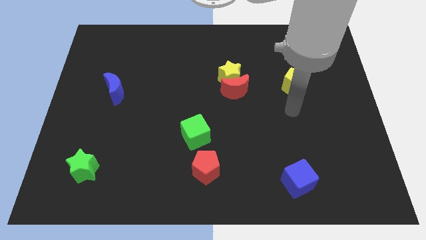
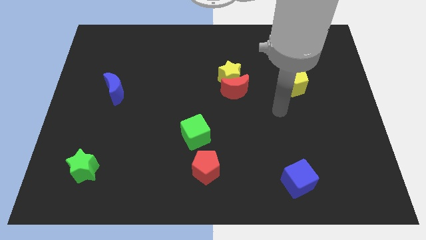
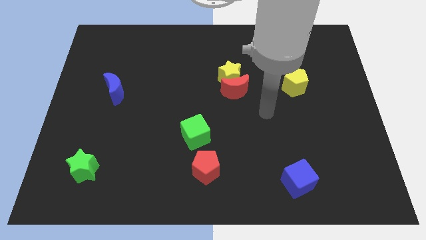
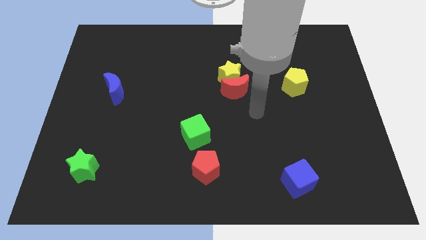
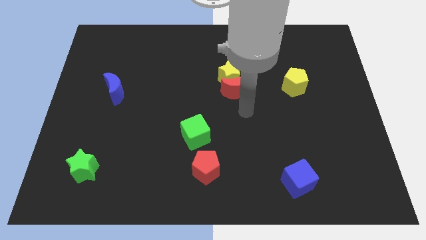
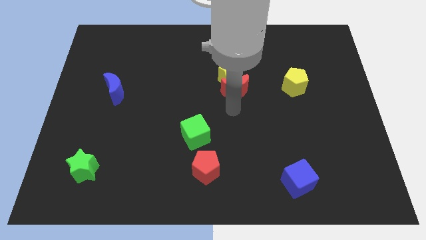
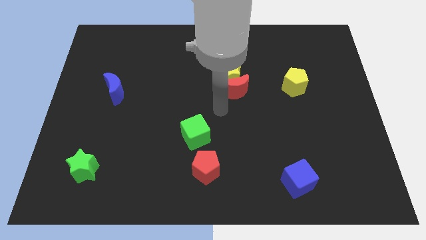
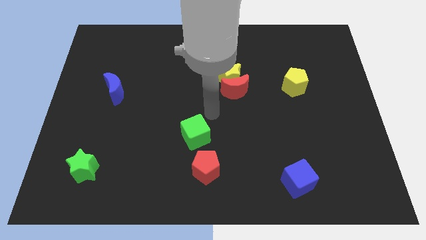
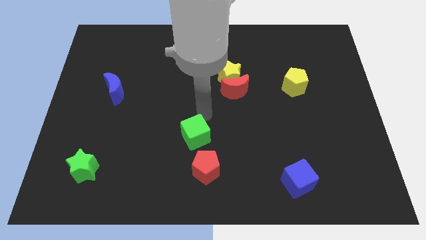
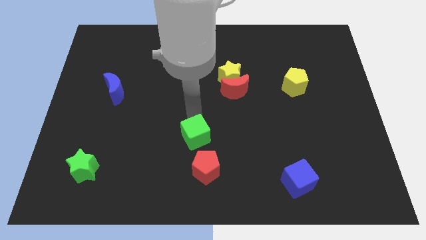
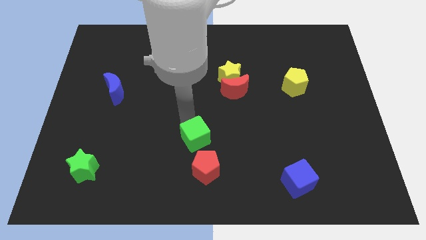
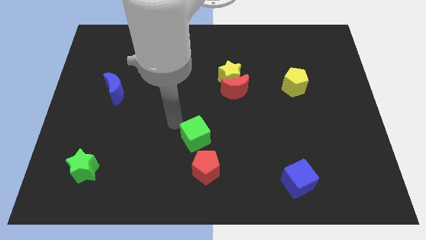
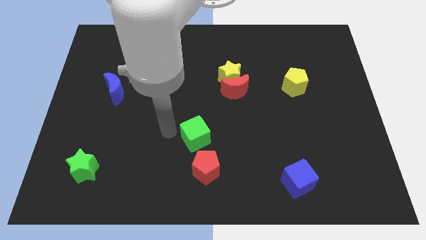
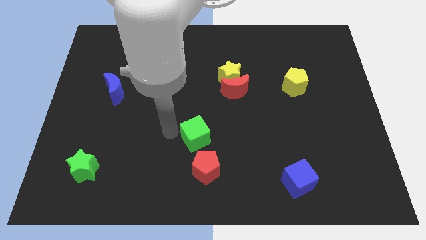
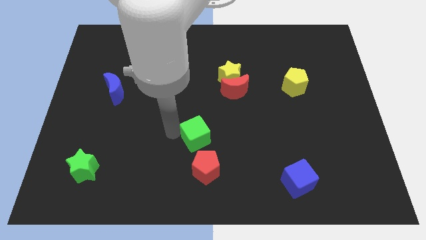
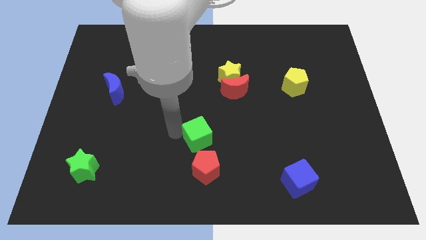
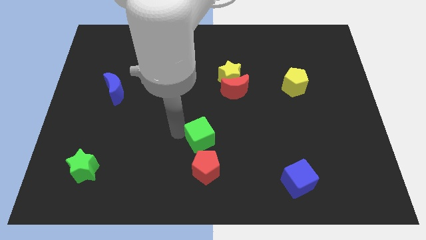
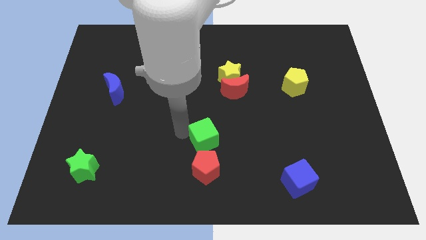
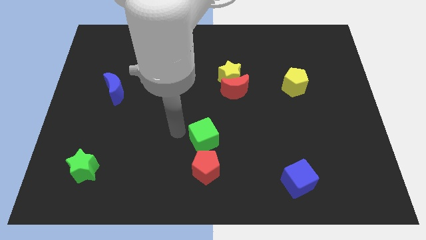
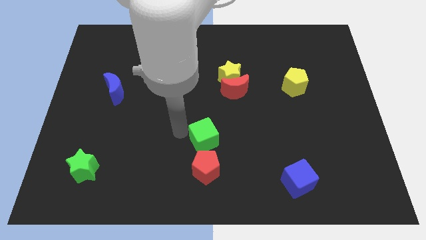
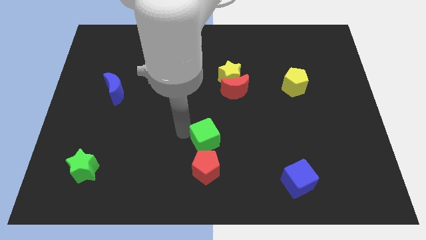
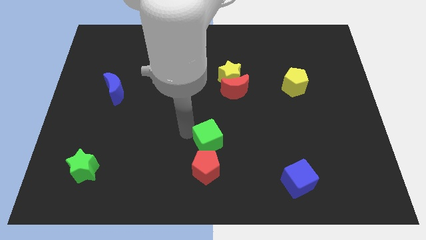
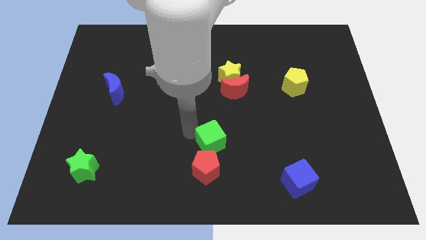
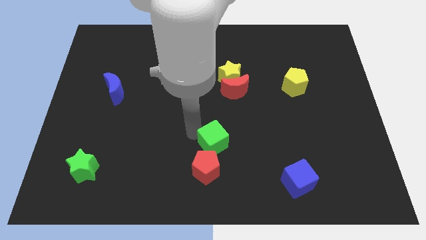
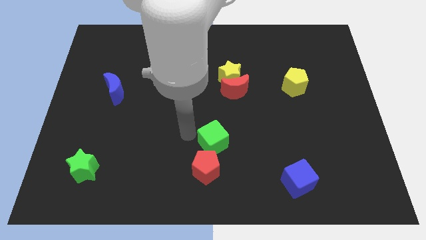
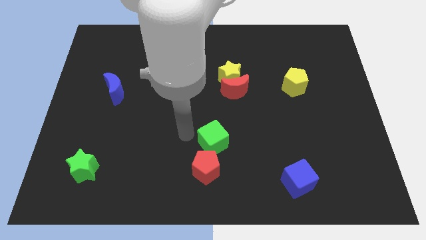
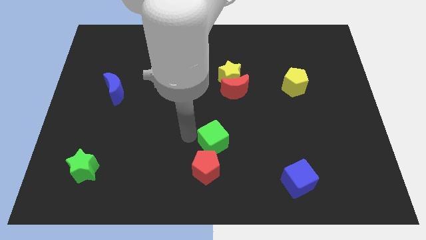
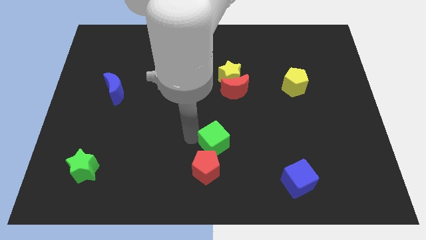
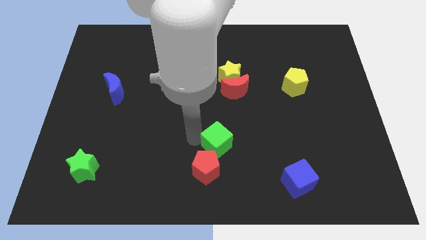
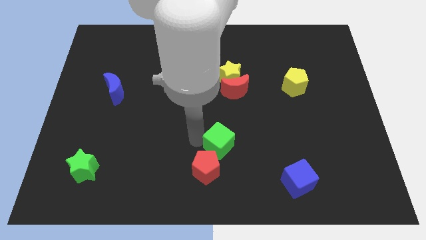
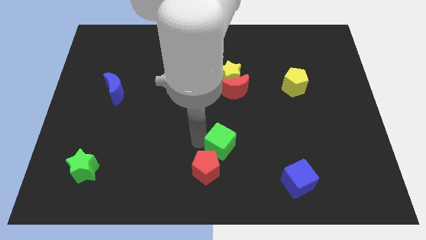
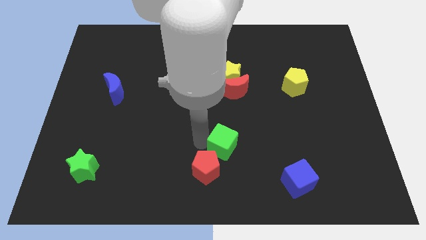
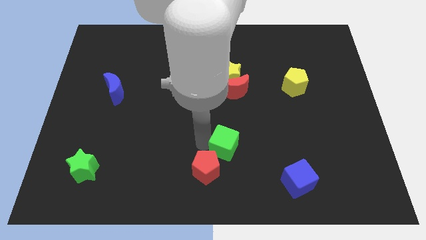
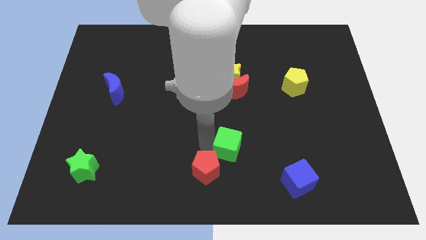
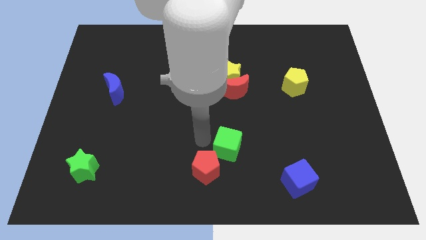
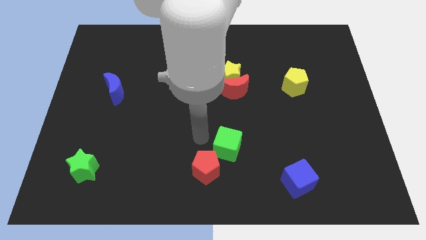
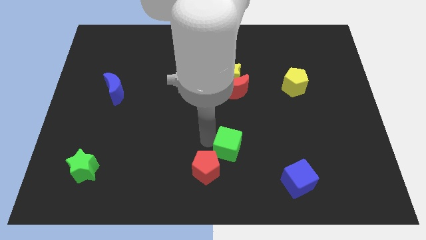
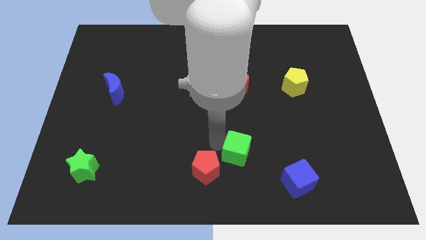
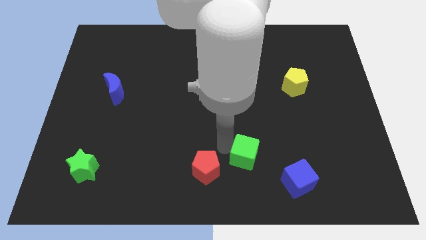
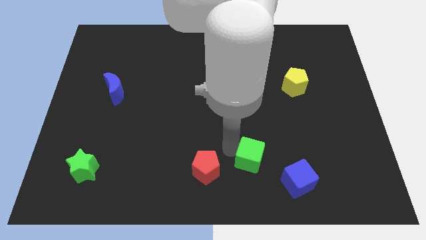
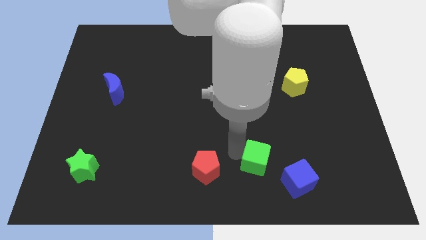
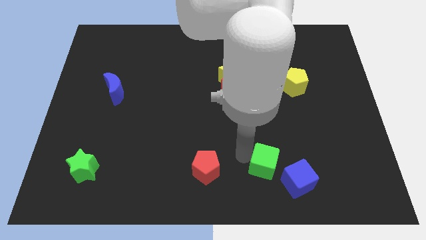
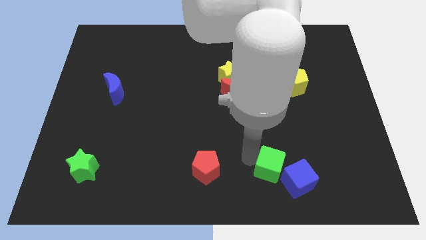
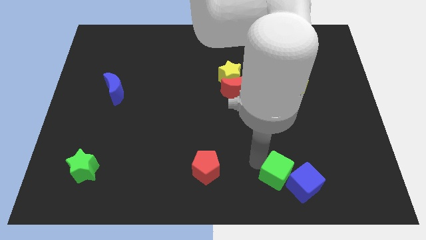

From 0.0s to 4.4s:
put the green cube next to the blue cube

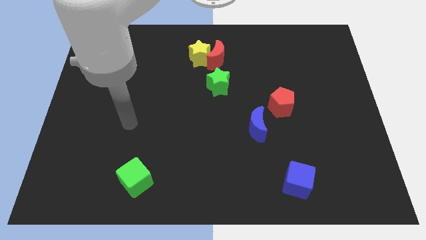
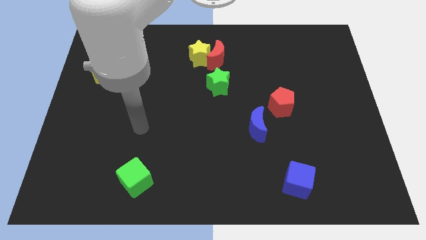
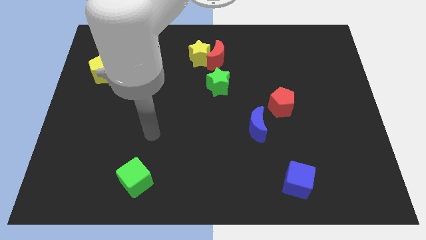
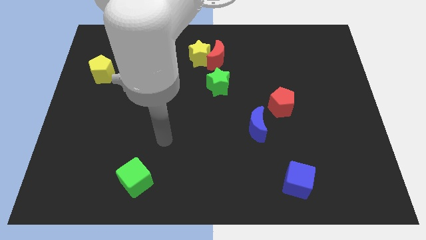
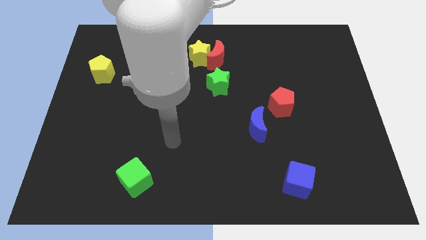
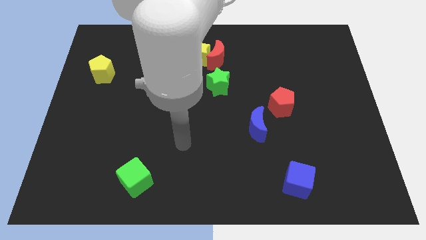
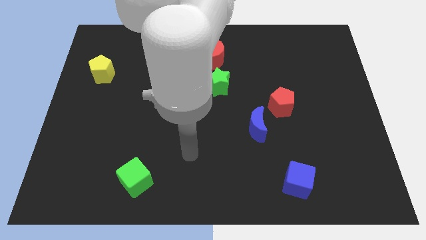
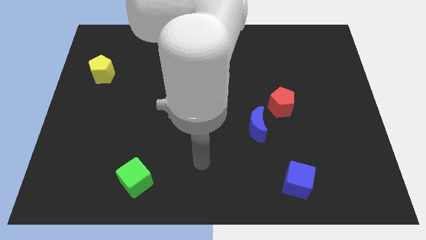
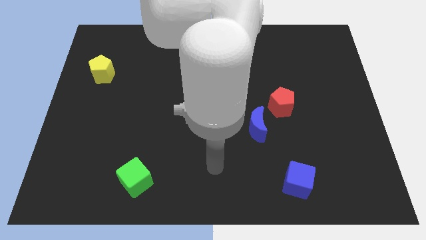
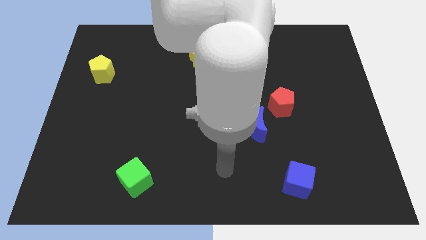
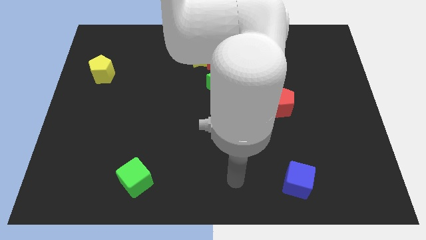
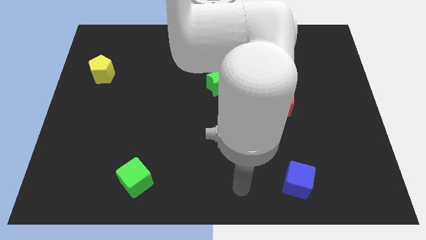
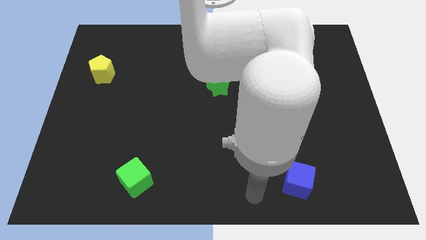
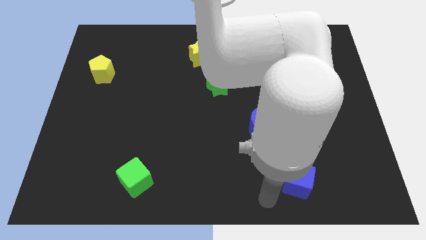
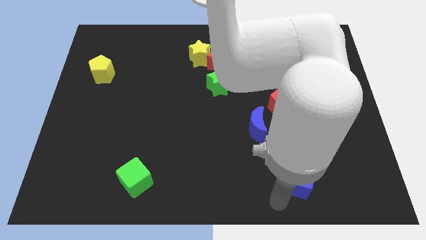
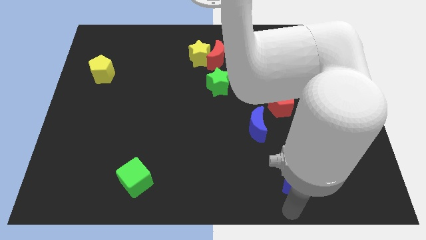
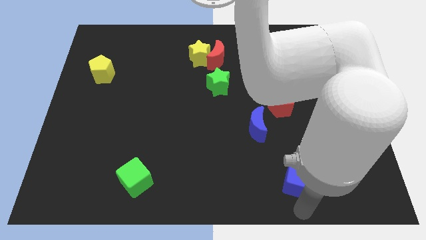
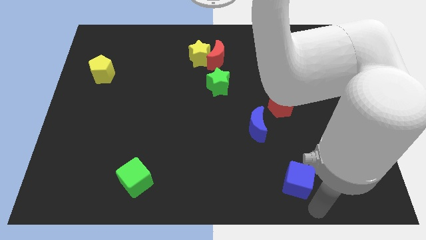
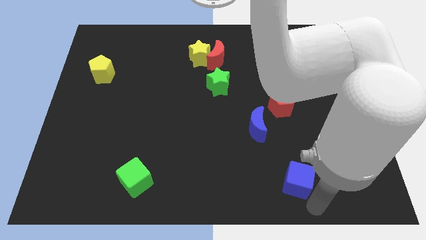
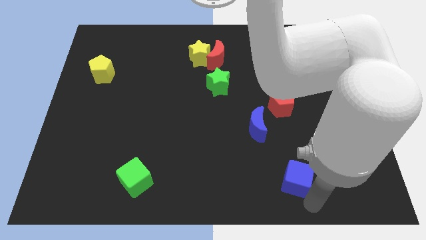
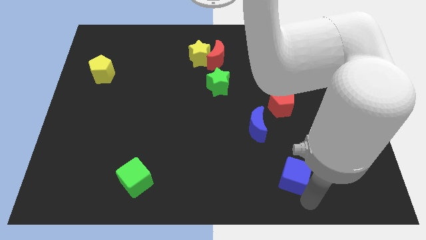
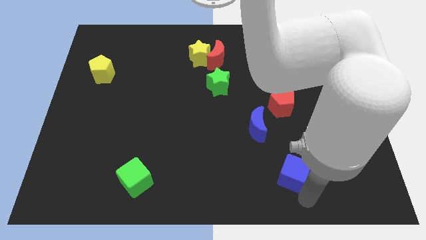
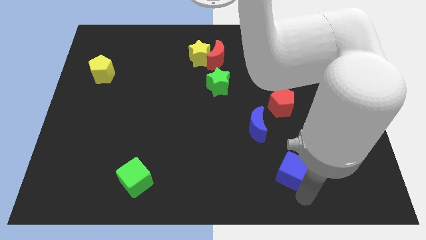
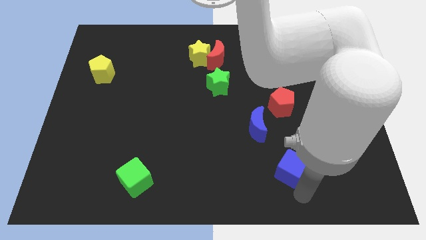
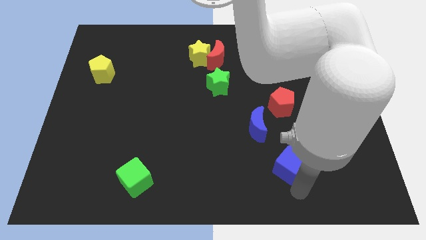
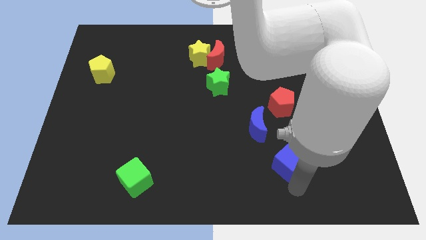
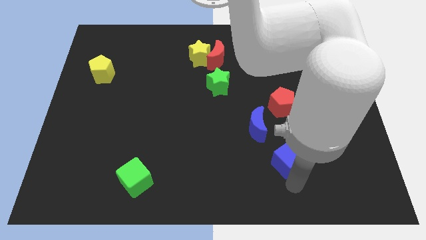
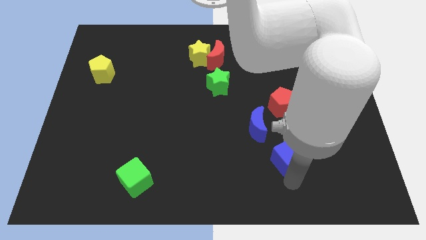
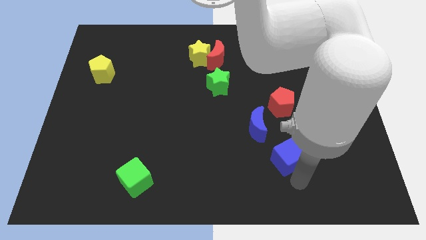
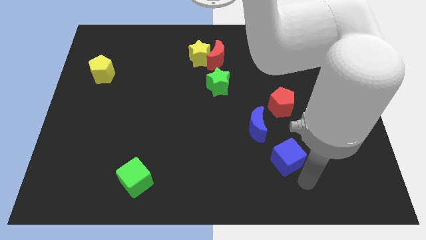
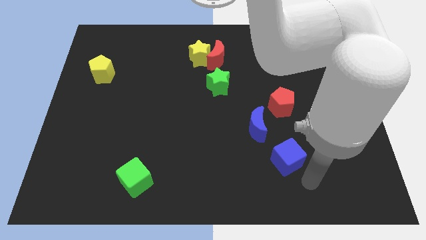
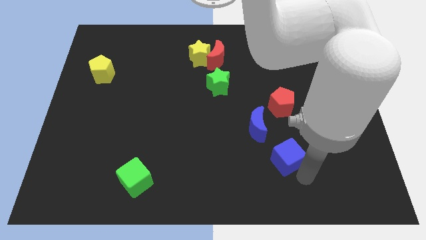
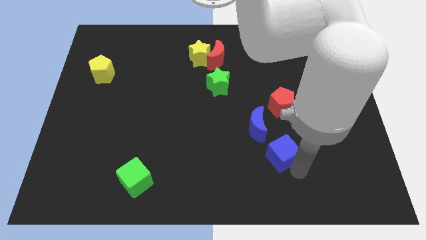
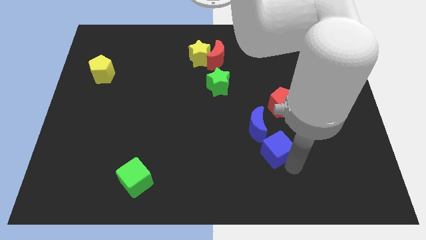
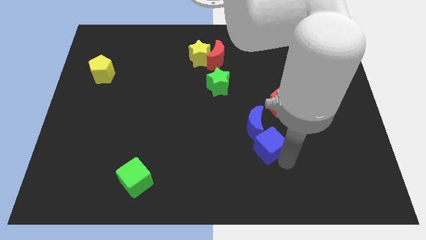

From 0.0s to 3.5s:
put the blue cube towards the blue moon
